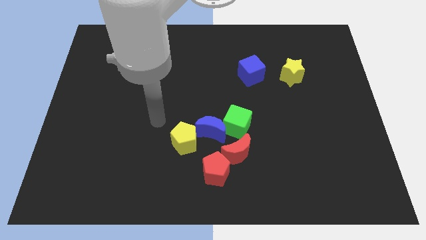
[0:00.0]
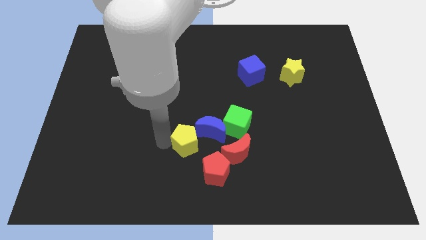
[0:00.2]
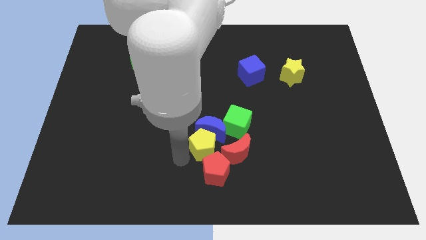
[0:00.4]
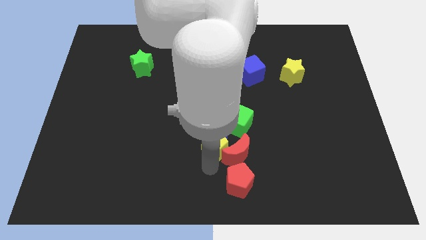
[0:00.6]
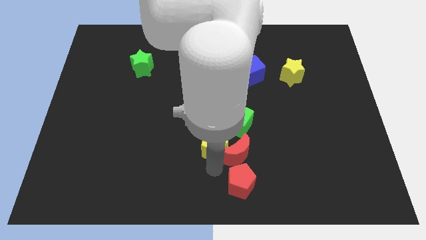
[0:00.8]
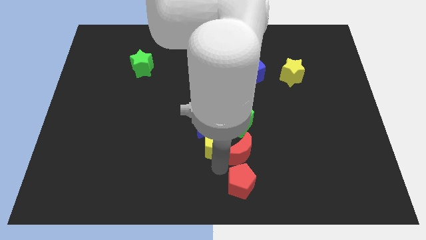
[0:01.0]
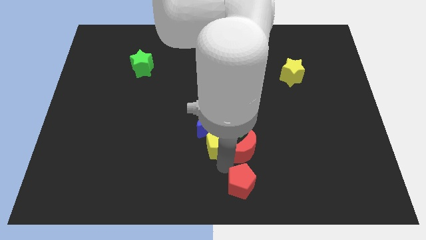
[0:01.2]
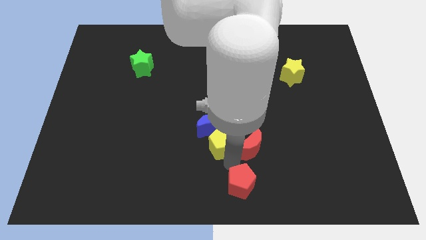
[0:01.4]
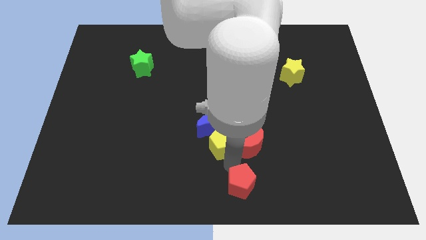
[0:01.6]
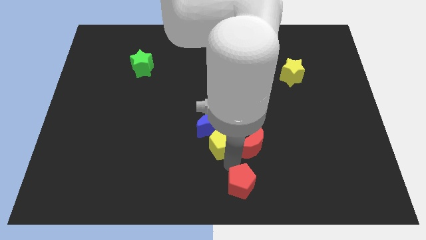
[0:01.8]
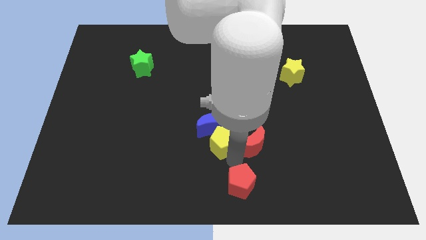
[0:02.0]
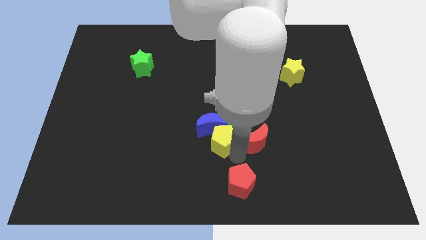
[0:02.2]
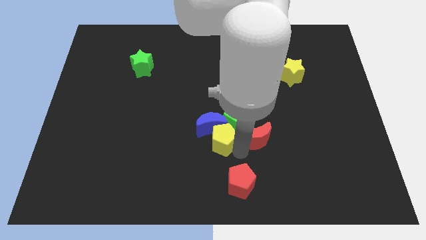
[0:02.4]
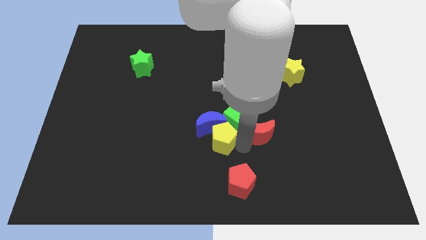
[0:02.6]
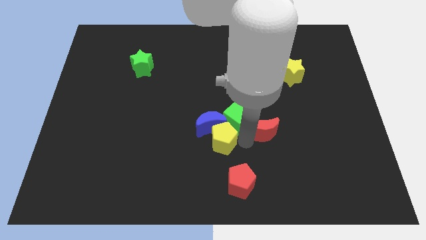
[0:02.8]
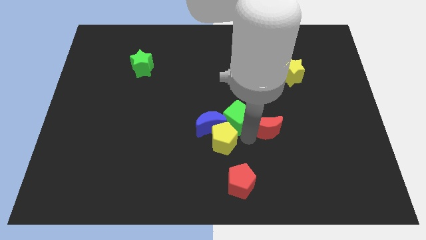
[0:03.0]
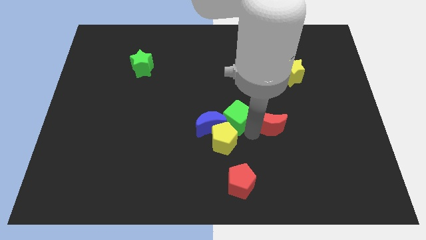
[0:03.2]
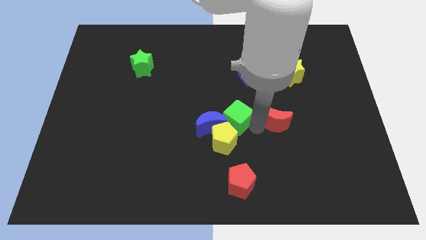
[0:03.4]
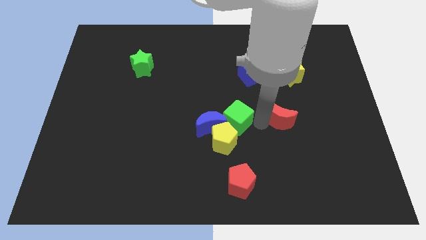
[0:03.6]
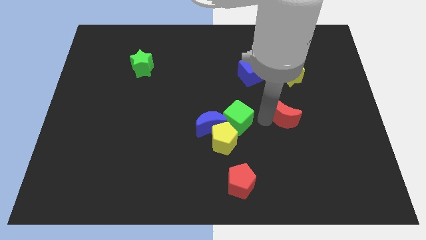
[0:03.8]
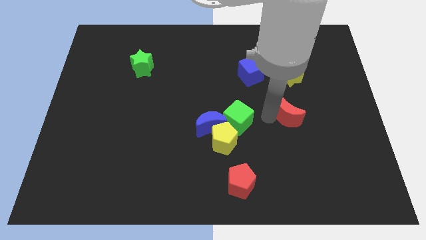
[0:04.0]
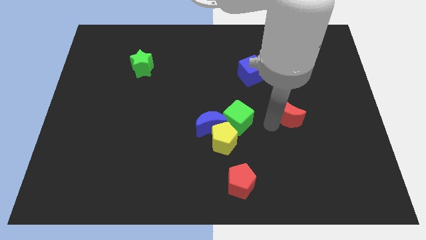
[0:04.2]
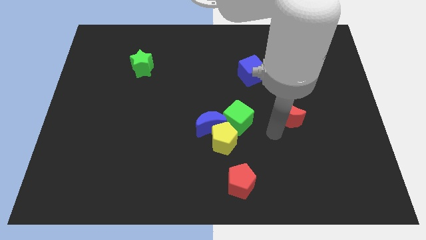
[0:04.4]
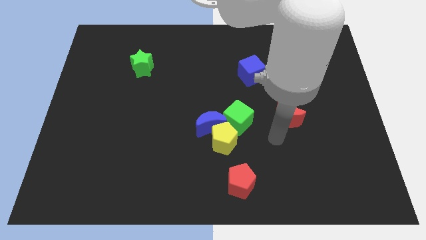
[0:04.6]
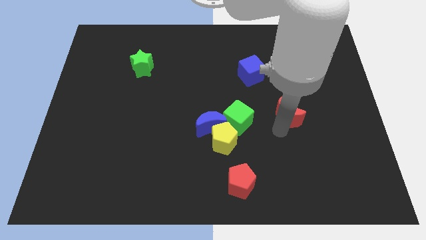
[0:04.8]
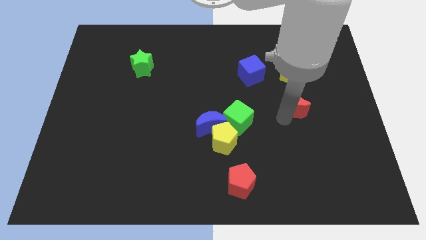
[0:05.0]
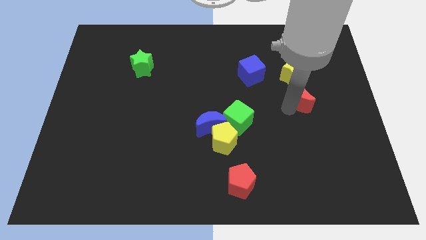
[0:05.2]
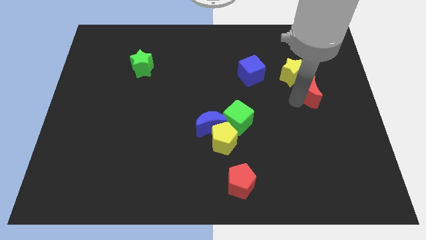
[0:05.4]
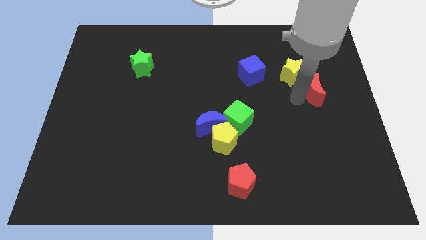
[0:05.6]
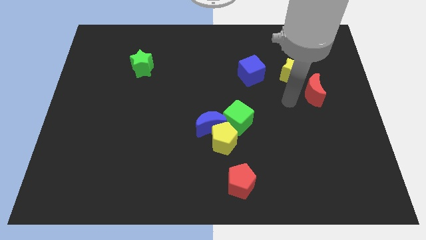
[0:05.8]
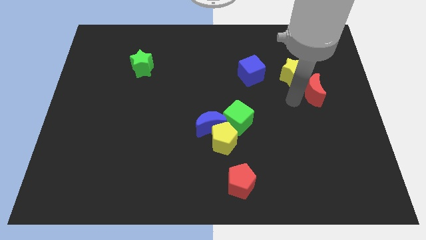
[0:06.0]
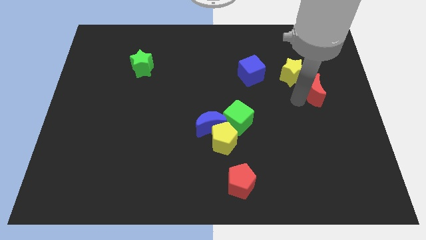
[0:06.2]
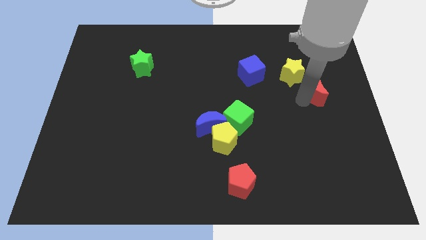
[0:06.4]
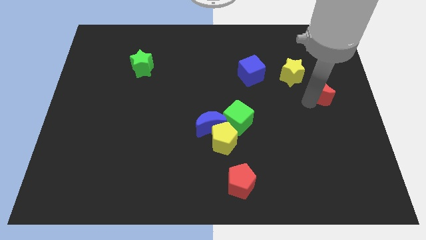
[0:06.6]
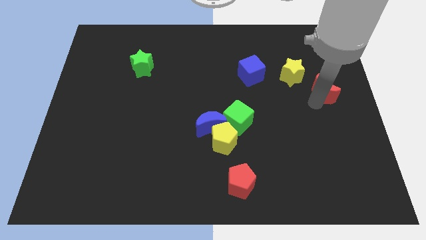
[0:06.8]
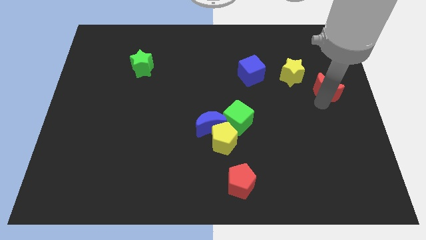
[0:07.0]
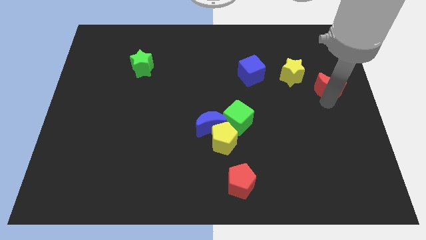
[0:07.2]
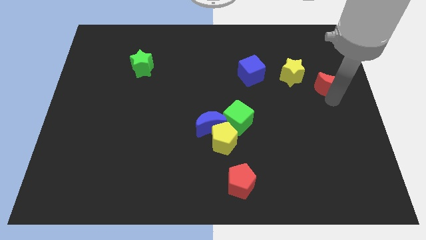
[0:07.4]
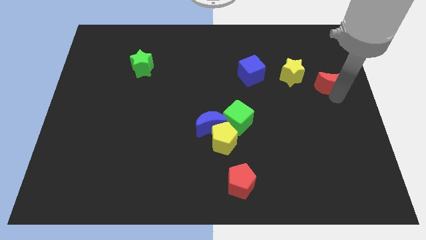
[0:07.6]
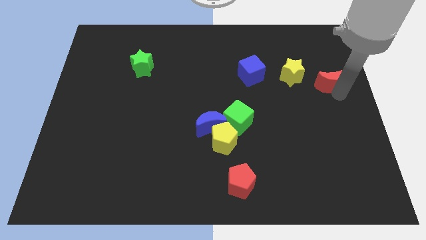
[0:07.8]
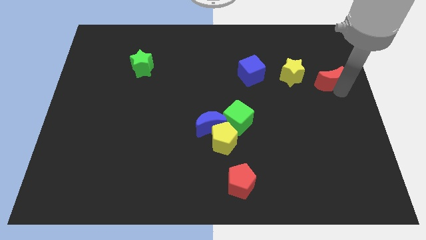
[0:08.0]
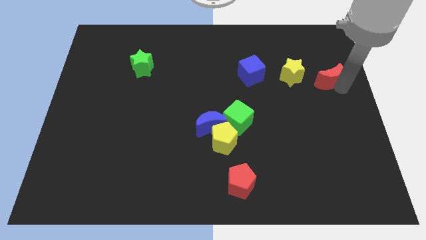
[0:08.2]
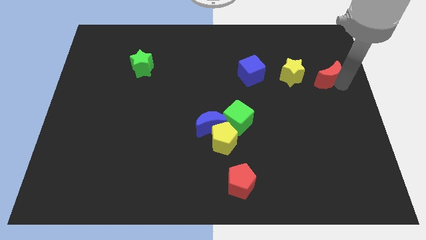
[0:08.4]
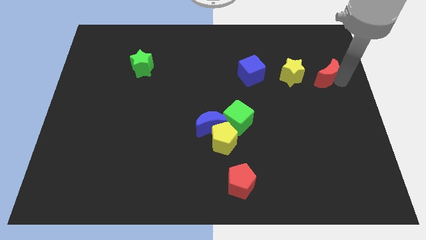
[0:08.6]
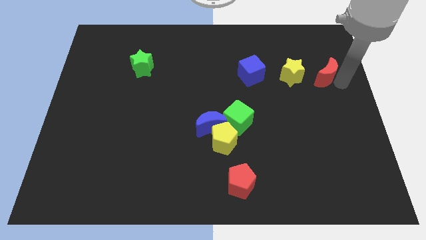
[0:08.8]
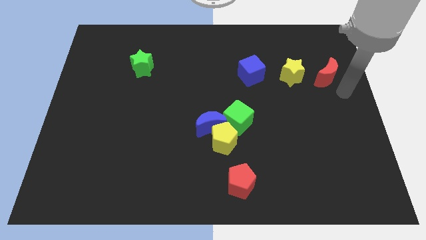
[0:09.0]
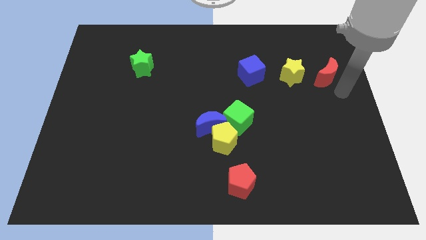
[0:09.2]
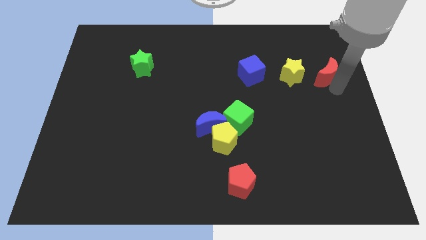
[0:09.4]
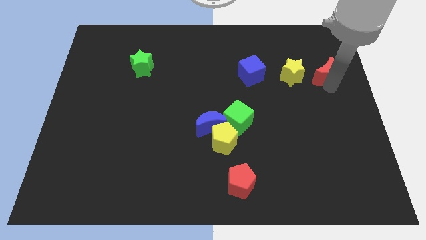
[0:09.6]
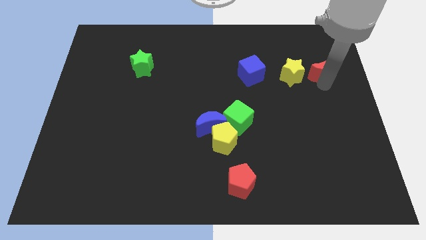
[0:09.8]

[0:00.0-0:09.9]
slide the red moon to the top right side of the yellow star
